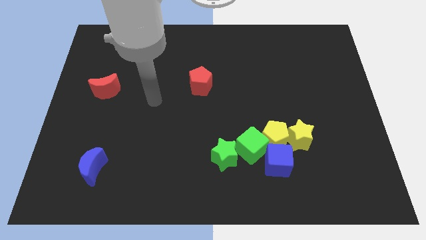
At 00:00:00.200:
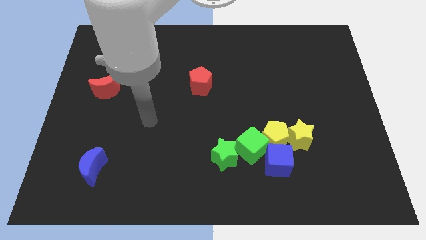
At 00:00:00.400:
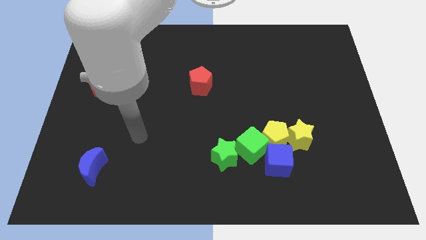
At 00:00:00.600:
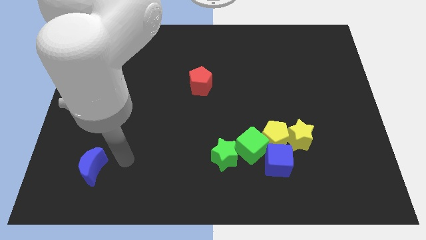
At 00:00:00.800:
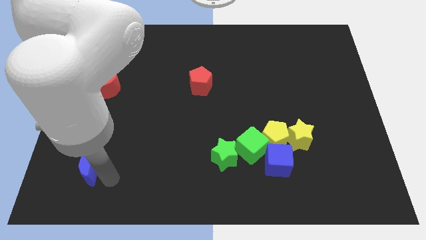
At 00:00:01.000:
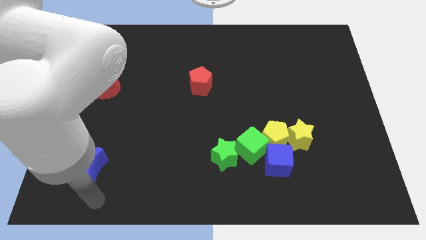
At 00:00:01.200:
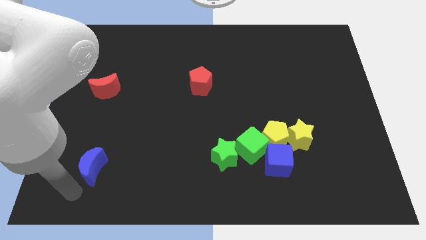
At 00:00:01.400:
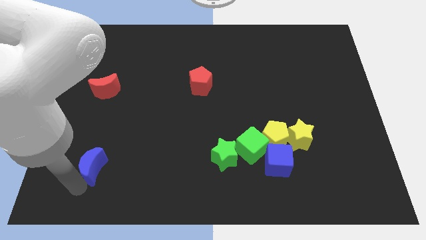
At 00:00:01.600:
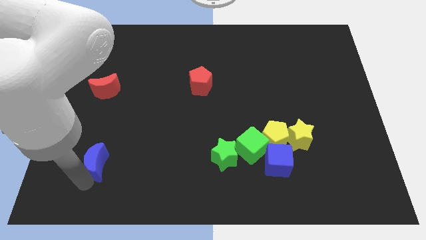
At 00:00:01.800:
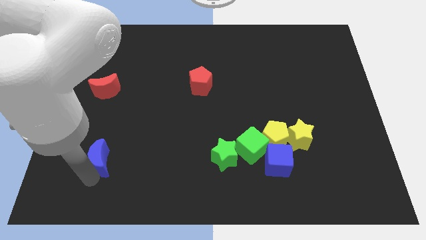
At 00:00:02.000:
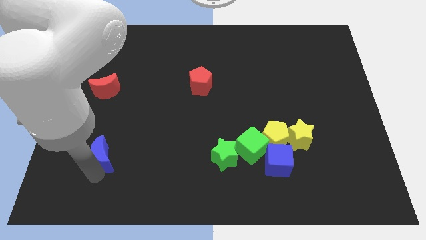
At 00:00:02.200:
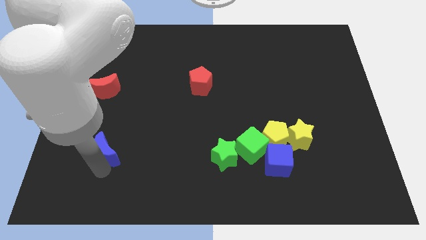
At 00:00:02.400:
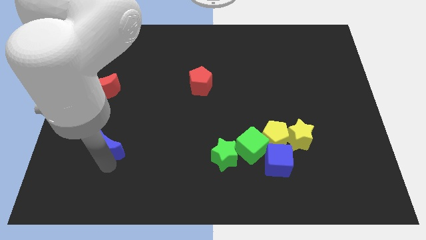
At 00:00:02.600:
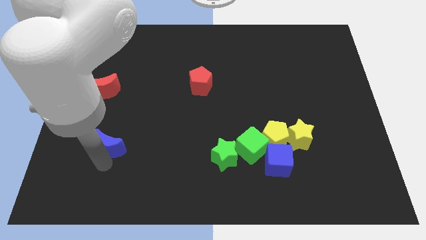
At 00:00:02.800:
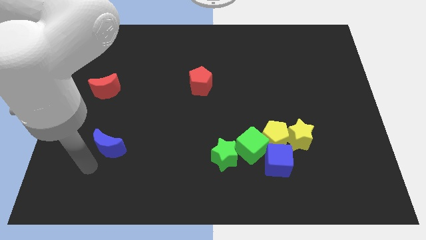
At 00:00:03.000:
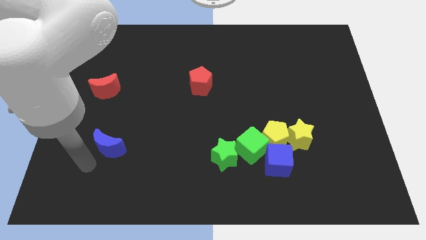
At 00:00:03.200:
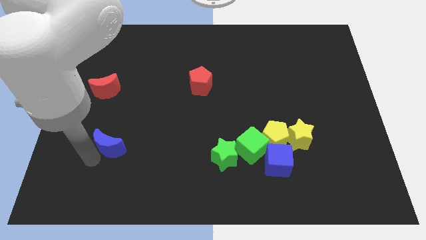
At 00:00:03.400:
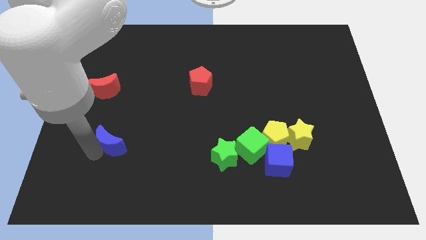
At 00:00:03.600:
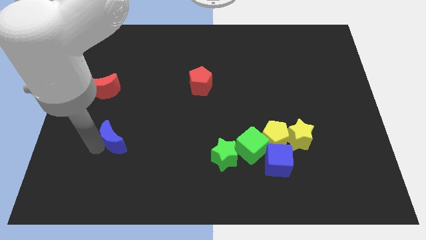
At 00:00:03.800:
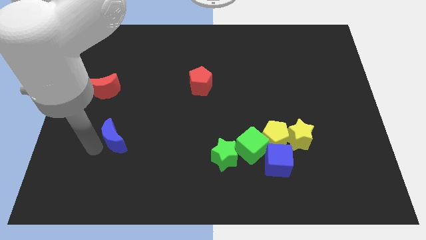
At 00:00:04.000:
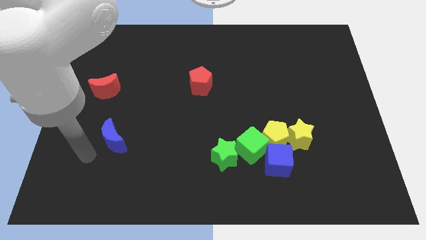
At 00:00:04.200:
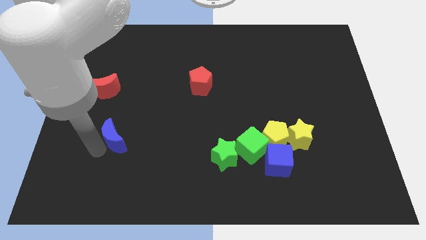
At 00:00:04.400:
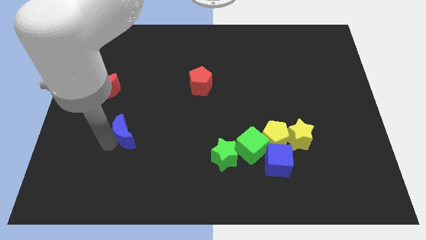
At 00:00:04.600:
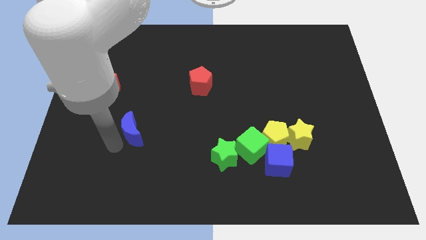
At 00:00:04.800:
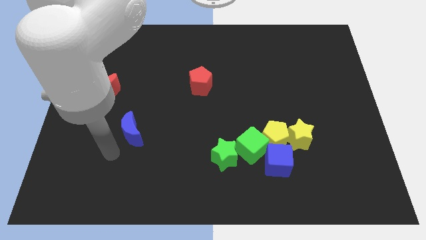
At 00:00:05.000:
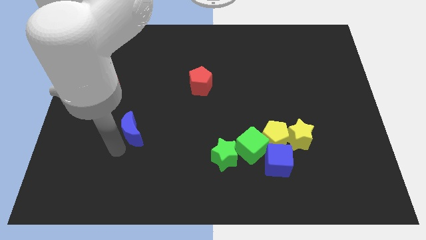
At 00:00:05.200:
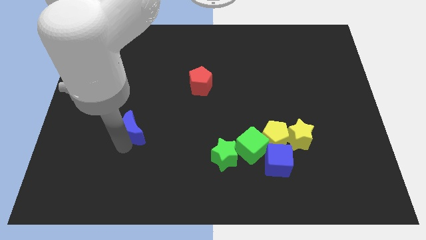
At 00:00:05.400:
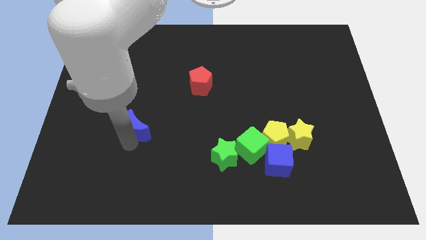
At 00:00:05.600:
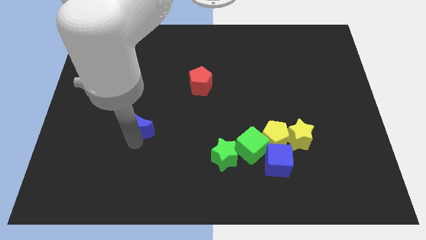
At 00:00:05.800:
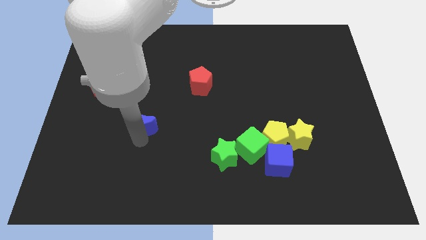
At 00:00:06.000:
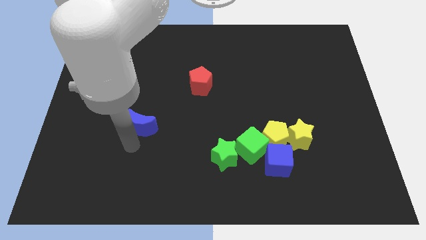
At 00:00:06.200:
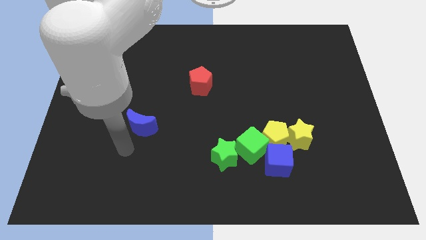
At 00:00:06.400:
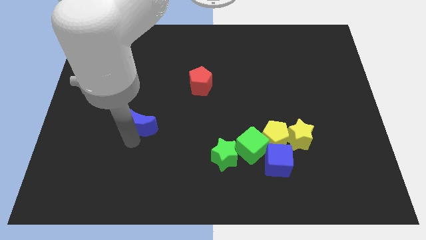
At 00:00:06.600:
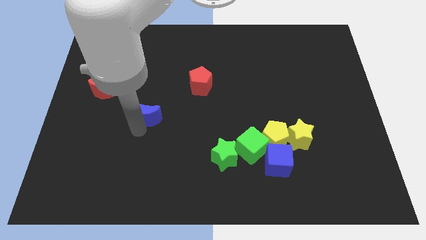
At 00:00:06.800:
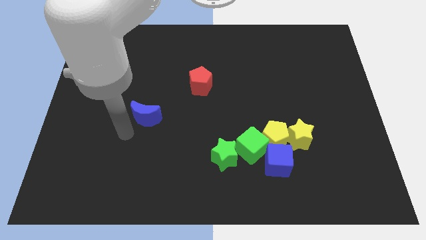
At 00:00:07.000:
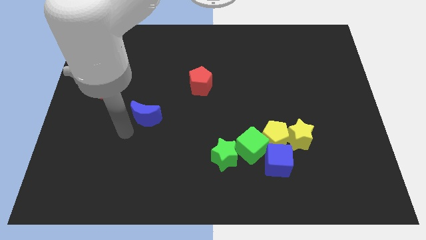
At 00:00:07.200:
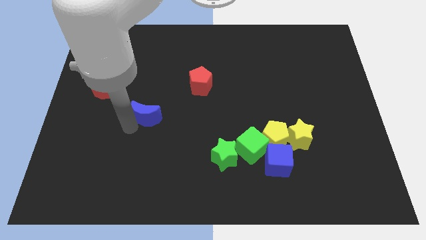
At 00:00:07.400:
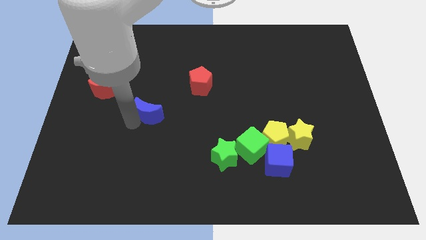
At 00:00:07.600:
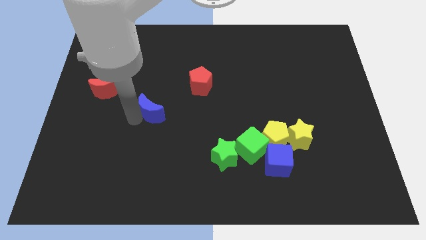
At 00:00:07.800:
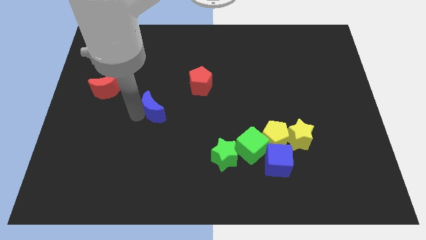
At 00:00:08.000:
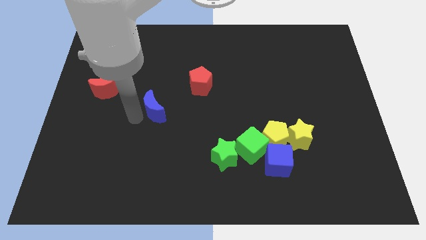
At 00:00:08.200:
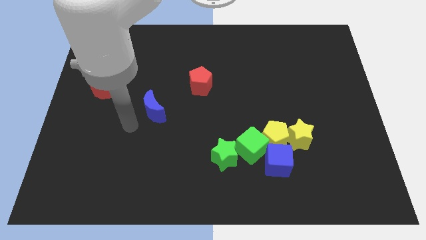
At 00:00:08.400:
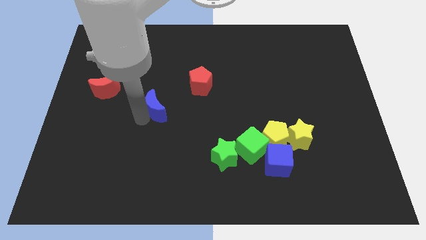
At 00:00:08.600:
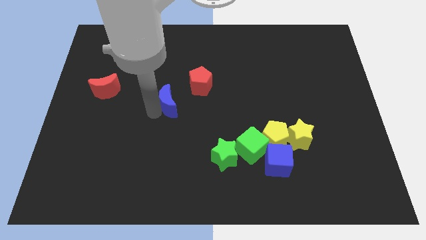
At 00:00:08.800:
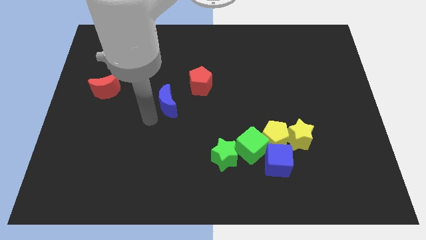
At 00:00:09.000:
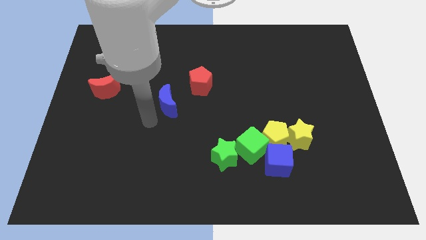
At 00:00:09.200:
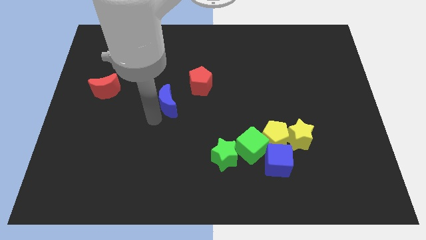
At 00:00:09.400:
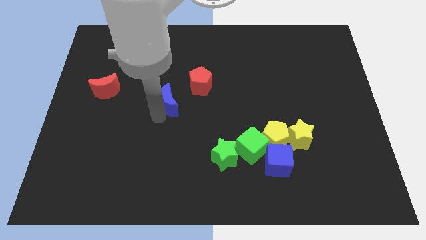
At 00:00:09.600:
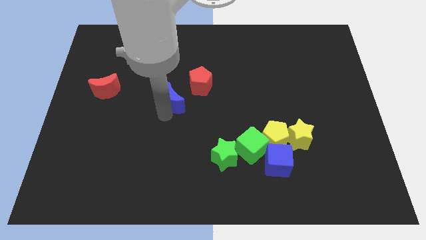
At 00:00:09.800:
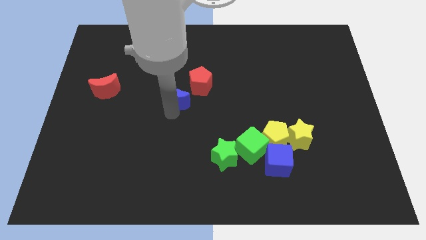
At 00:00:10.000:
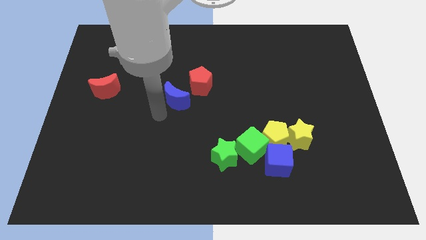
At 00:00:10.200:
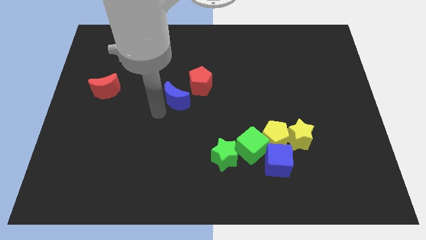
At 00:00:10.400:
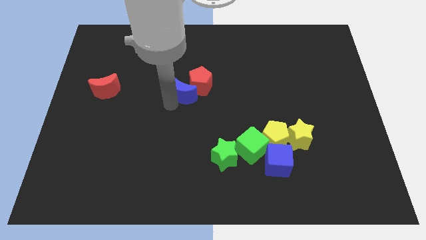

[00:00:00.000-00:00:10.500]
move the blue moon to the red pentagon

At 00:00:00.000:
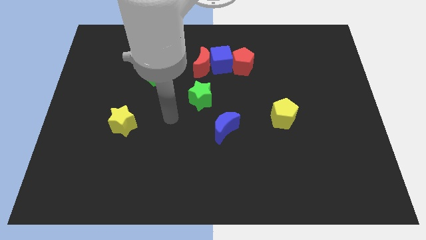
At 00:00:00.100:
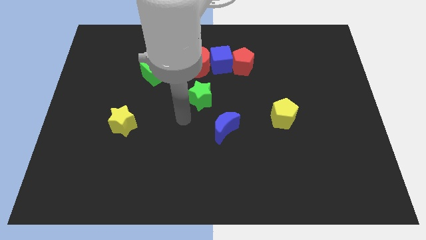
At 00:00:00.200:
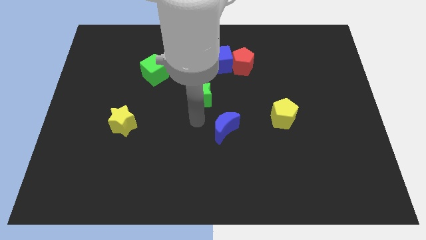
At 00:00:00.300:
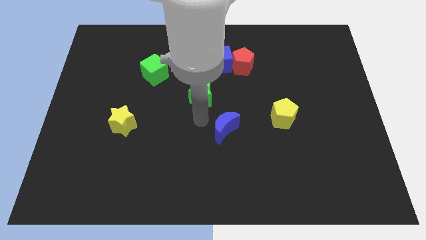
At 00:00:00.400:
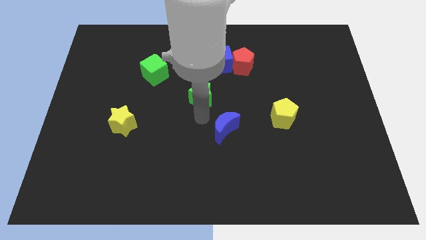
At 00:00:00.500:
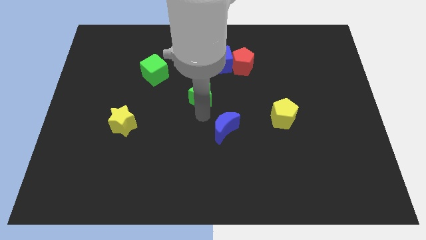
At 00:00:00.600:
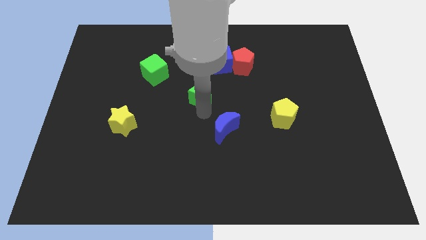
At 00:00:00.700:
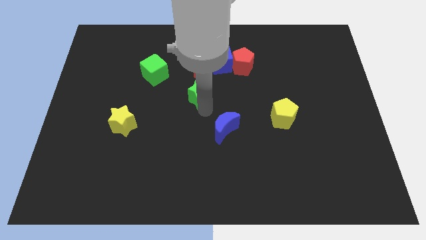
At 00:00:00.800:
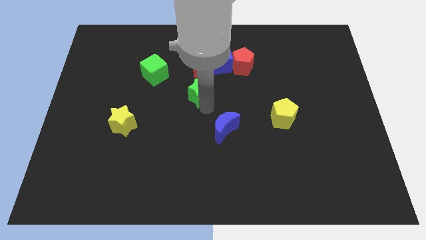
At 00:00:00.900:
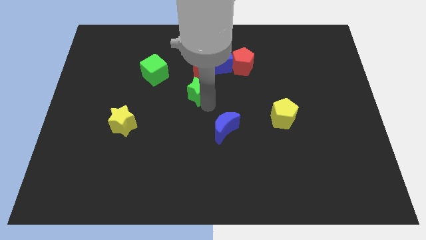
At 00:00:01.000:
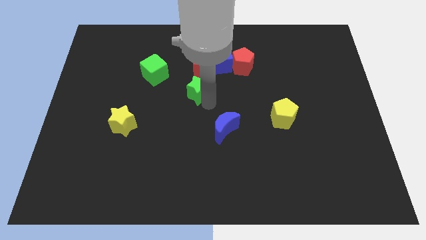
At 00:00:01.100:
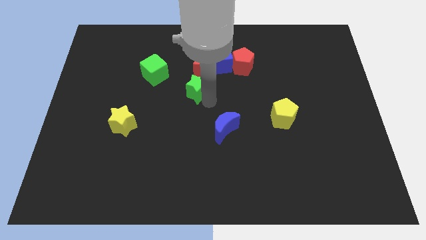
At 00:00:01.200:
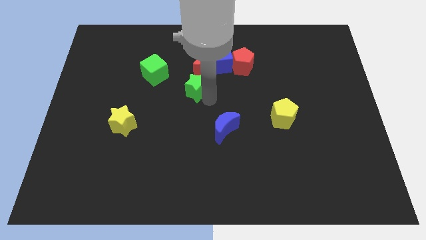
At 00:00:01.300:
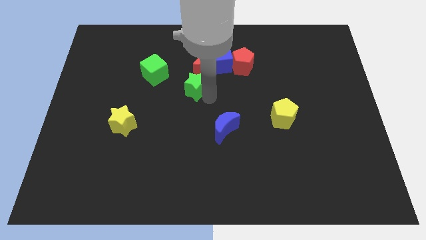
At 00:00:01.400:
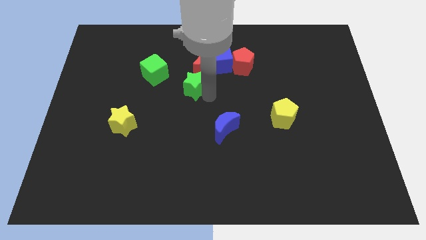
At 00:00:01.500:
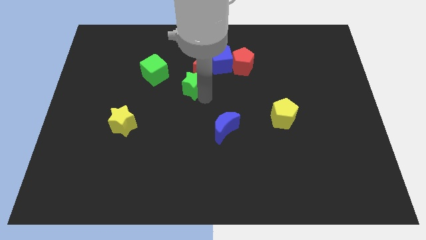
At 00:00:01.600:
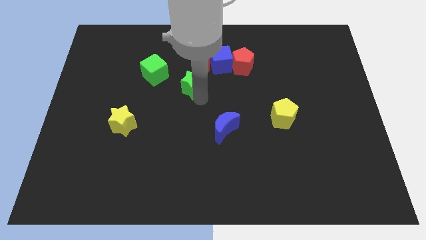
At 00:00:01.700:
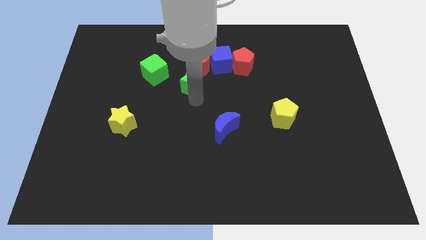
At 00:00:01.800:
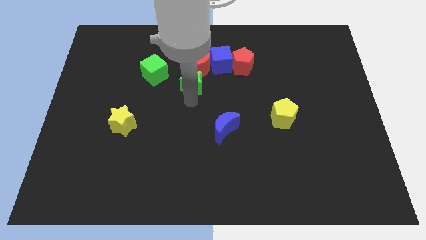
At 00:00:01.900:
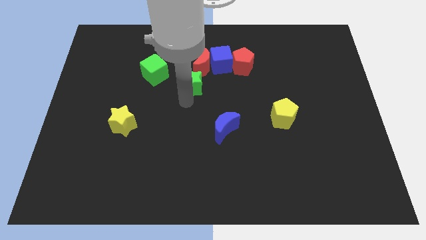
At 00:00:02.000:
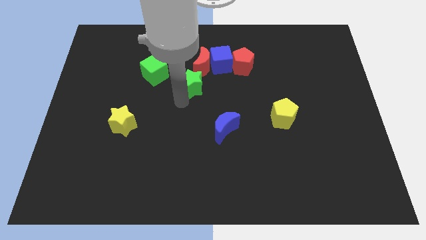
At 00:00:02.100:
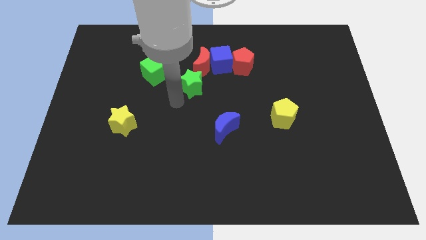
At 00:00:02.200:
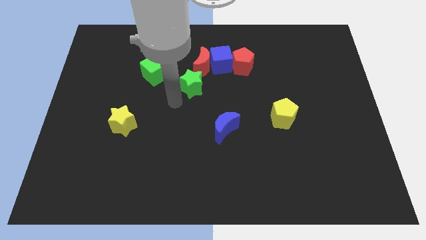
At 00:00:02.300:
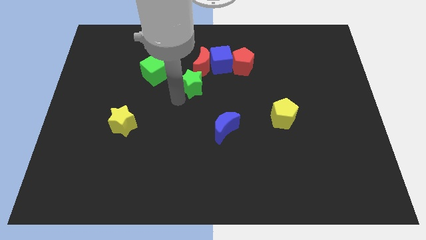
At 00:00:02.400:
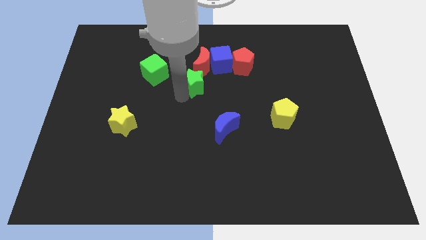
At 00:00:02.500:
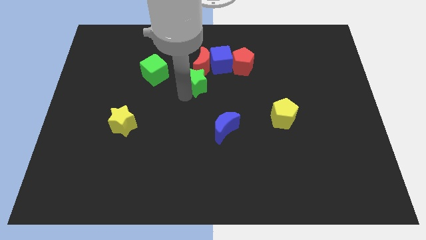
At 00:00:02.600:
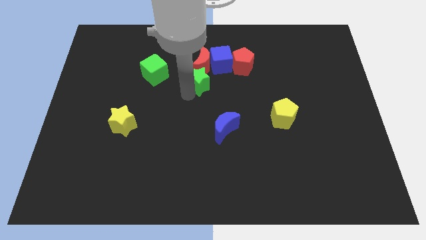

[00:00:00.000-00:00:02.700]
put the green star to the red moon
